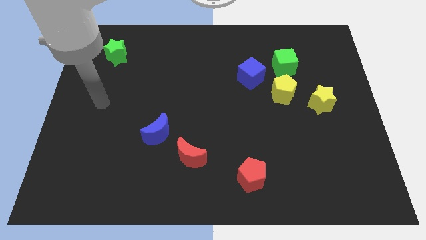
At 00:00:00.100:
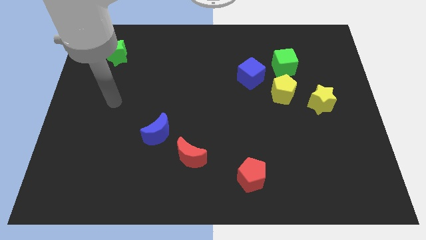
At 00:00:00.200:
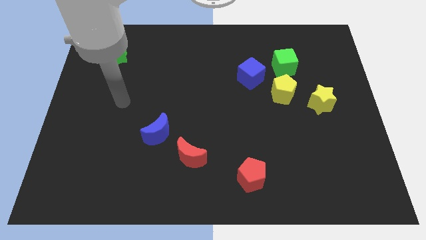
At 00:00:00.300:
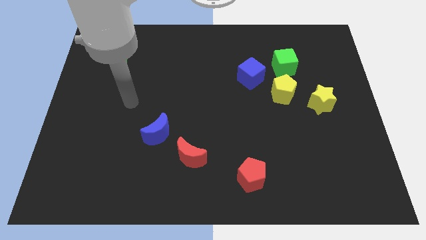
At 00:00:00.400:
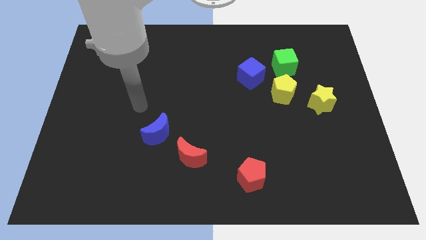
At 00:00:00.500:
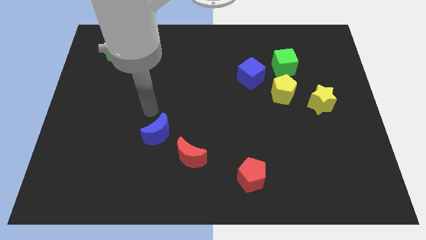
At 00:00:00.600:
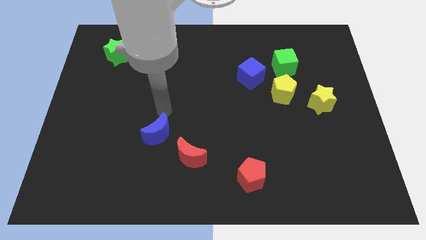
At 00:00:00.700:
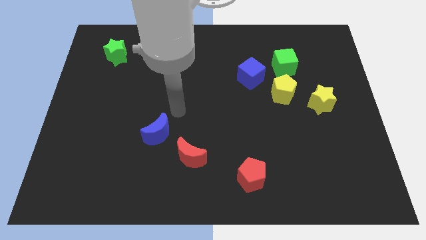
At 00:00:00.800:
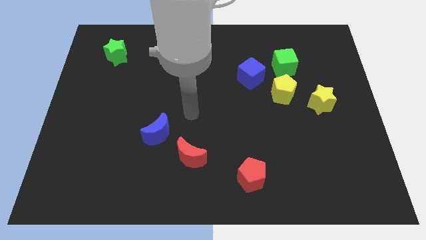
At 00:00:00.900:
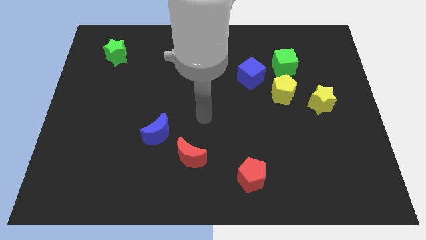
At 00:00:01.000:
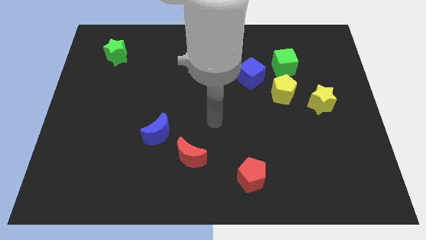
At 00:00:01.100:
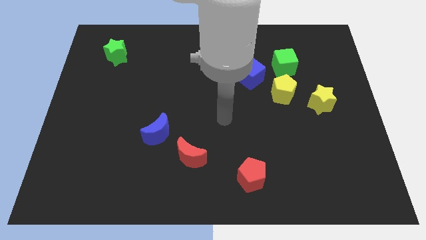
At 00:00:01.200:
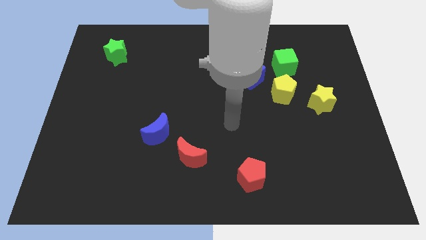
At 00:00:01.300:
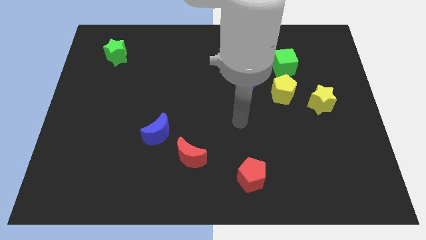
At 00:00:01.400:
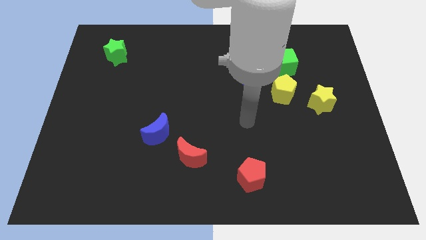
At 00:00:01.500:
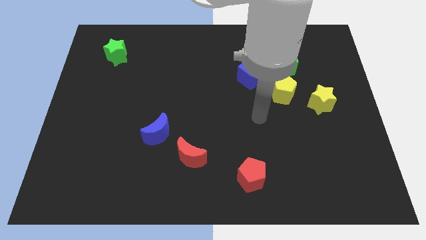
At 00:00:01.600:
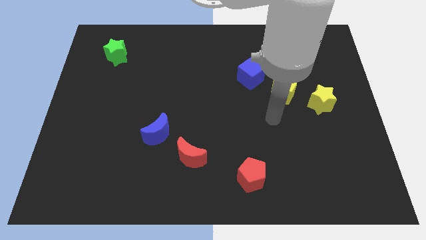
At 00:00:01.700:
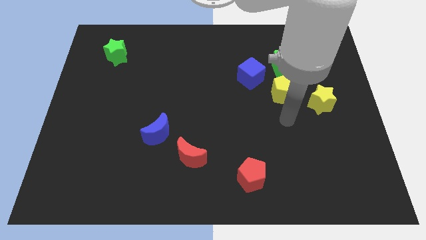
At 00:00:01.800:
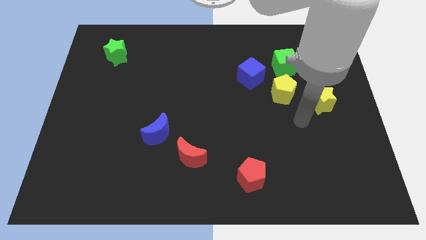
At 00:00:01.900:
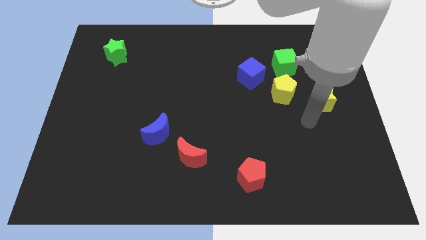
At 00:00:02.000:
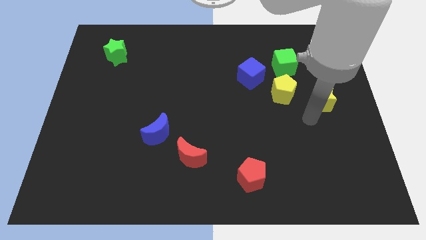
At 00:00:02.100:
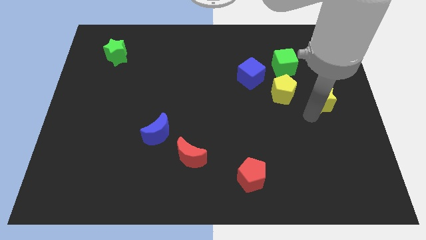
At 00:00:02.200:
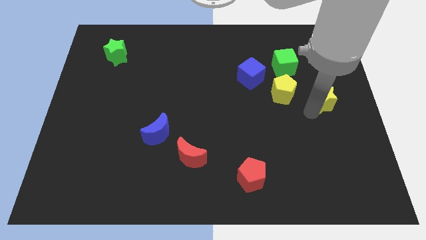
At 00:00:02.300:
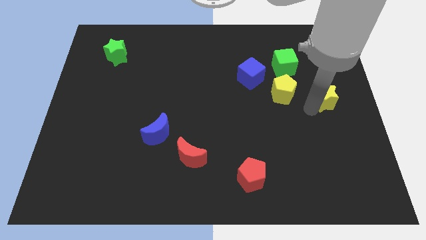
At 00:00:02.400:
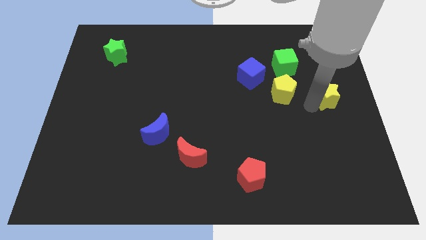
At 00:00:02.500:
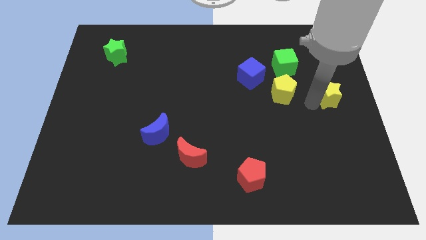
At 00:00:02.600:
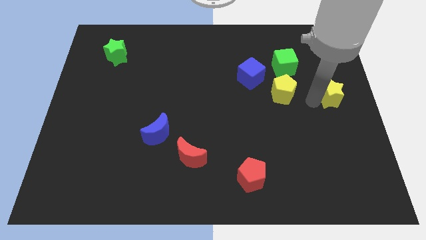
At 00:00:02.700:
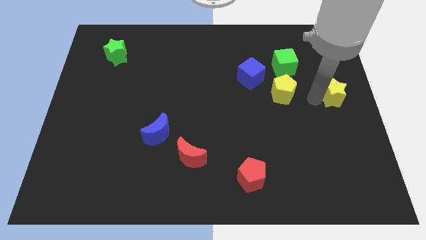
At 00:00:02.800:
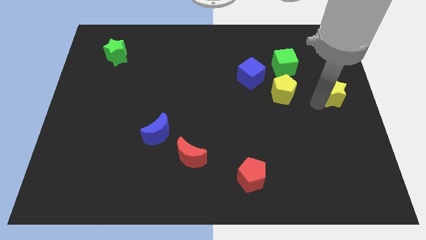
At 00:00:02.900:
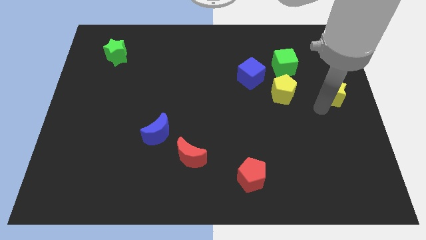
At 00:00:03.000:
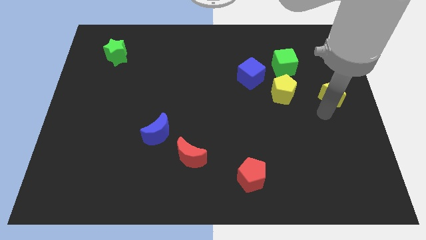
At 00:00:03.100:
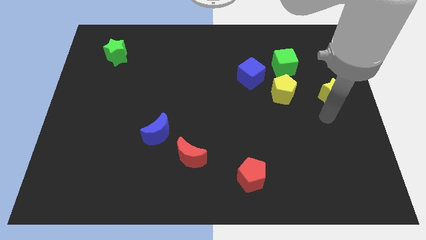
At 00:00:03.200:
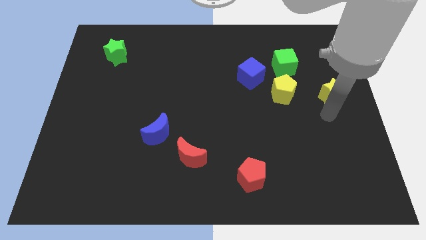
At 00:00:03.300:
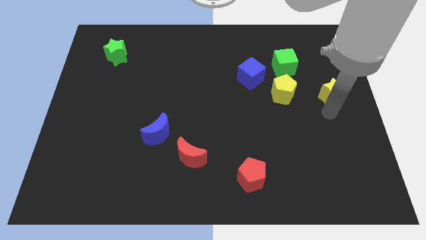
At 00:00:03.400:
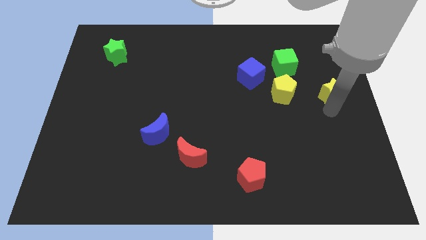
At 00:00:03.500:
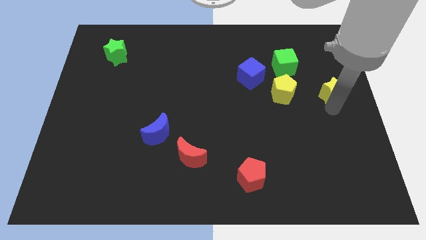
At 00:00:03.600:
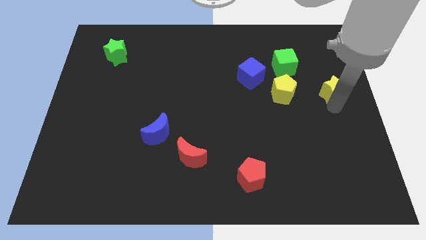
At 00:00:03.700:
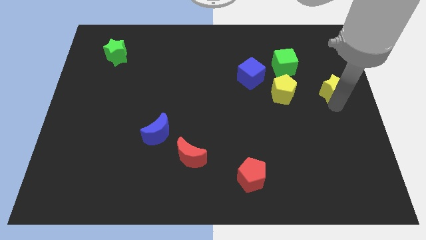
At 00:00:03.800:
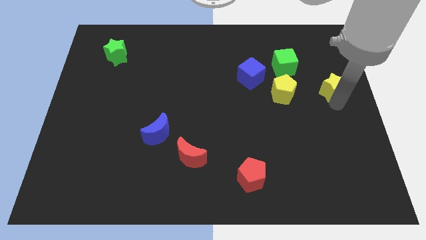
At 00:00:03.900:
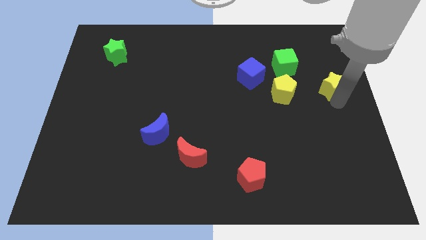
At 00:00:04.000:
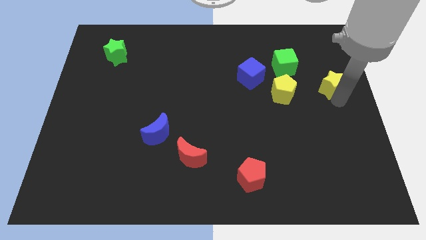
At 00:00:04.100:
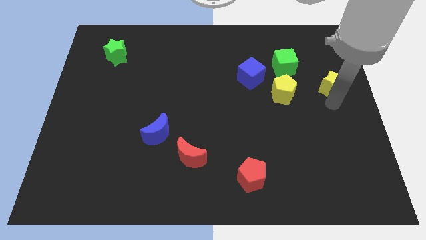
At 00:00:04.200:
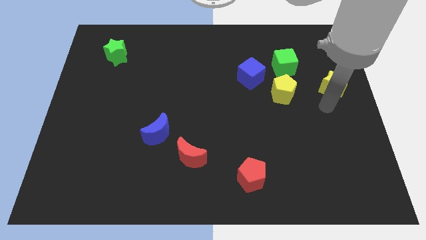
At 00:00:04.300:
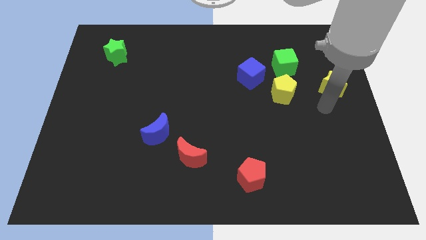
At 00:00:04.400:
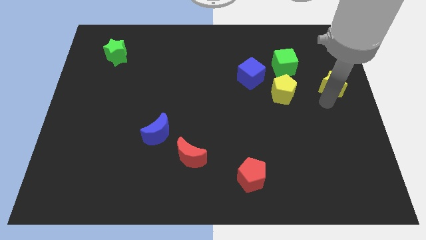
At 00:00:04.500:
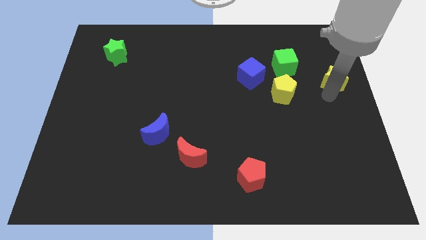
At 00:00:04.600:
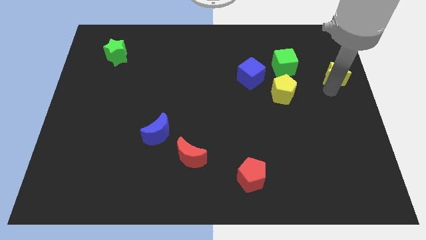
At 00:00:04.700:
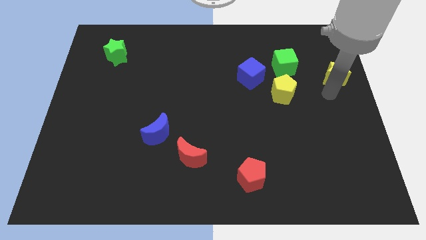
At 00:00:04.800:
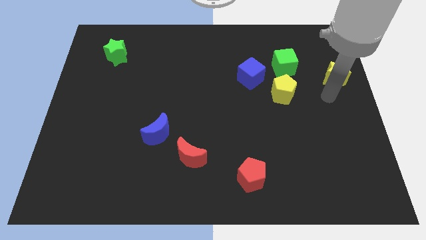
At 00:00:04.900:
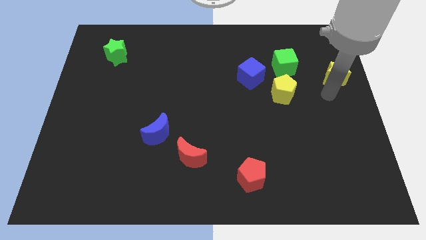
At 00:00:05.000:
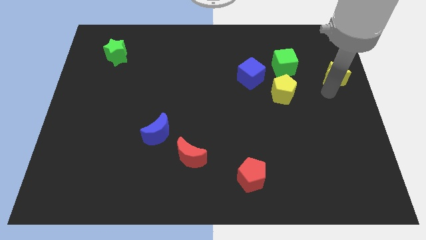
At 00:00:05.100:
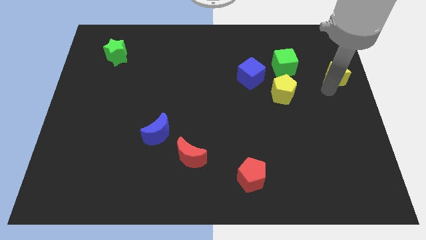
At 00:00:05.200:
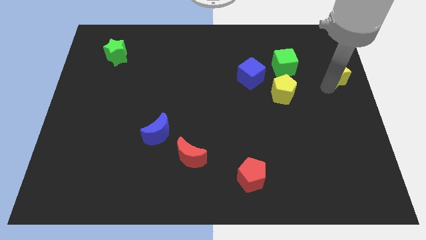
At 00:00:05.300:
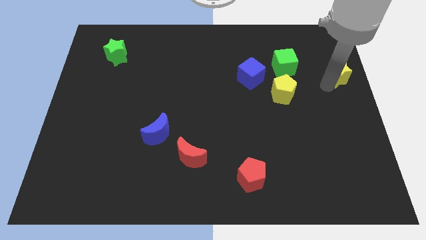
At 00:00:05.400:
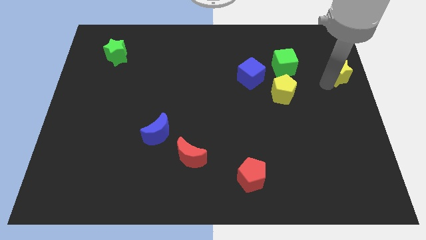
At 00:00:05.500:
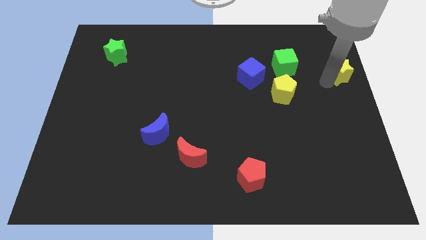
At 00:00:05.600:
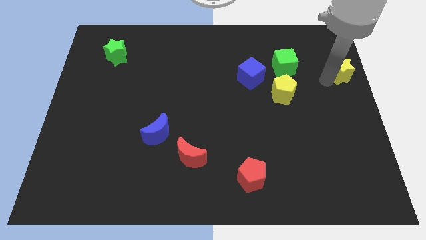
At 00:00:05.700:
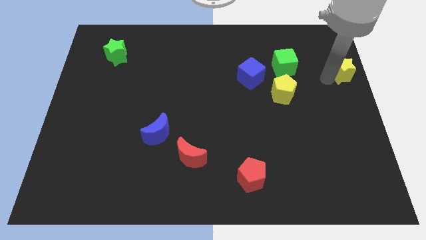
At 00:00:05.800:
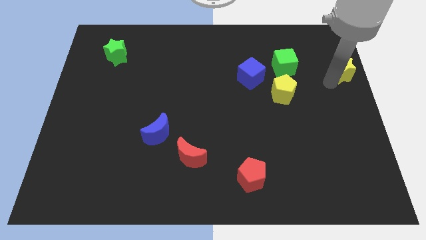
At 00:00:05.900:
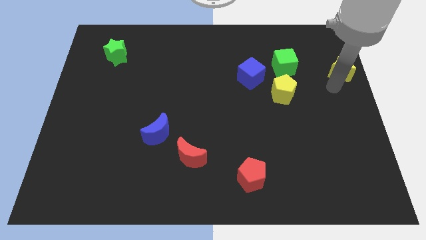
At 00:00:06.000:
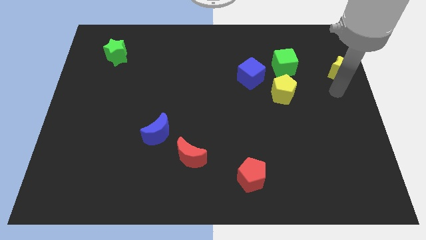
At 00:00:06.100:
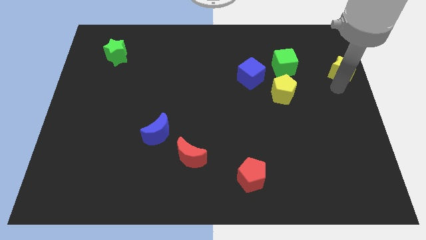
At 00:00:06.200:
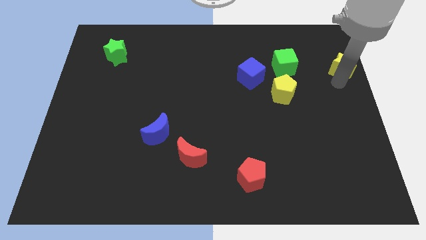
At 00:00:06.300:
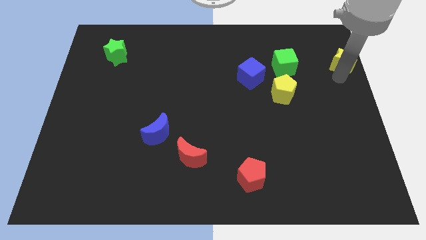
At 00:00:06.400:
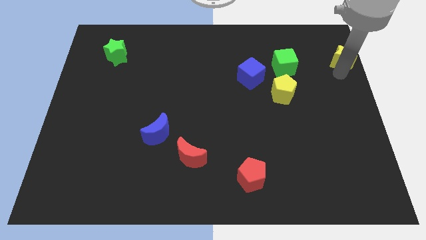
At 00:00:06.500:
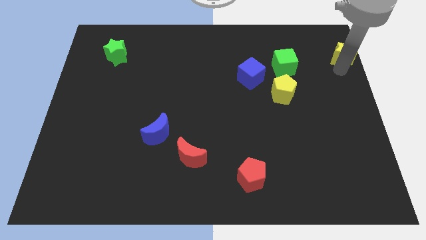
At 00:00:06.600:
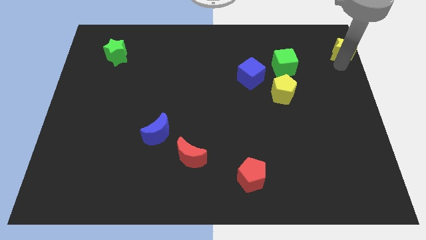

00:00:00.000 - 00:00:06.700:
push the yellow star to the top right of the board

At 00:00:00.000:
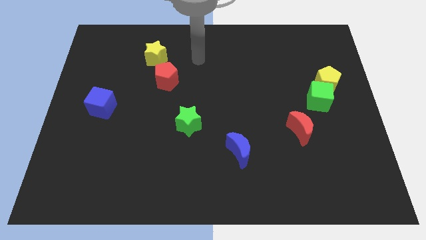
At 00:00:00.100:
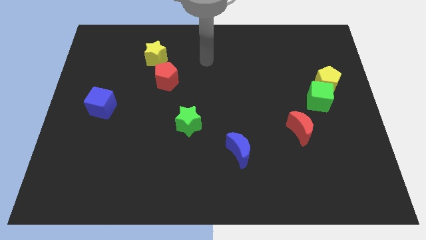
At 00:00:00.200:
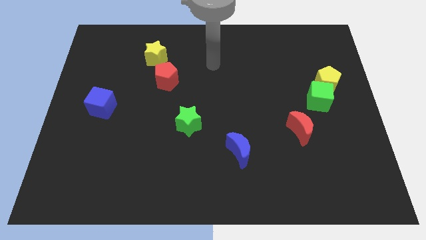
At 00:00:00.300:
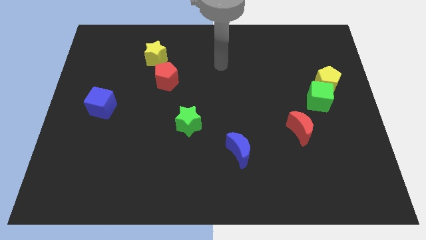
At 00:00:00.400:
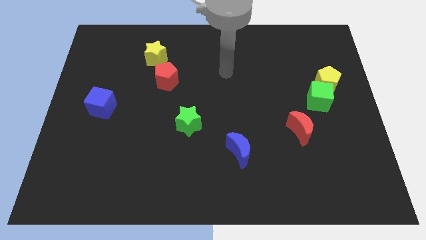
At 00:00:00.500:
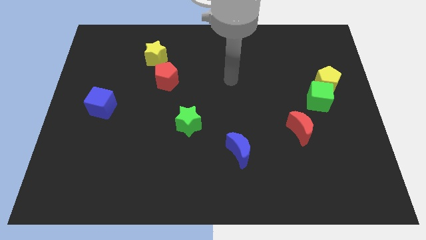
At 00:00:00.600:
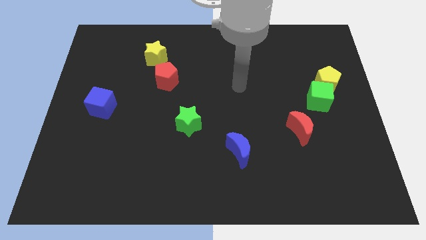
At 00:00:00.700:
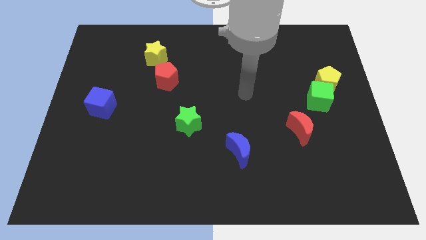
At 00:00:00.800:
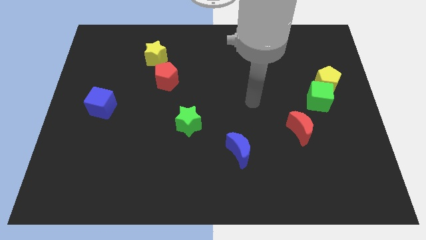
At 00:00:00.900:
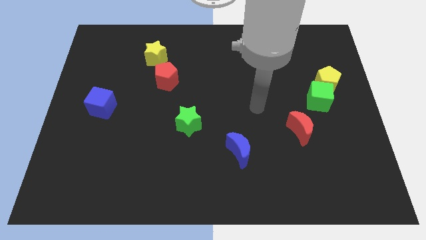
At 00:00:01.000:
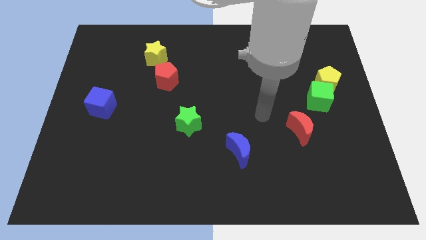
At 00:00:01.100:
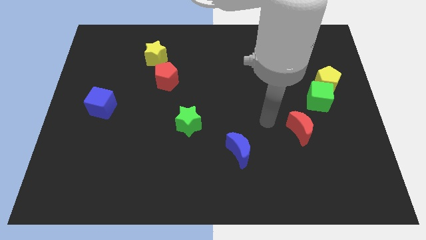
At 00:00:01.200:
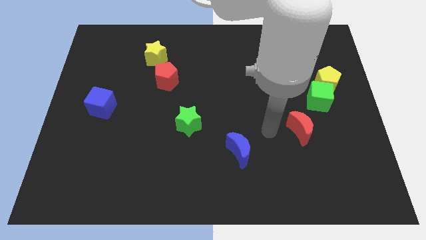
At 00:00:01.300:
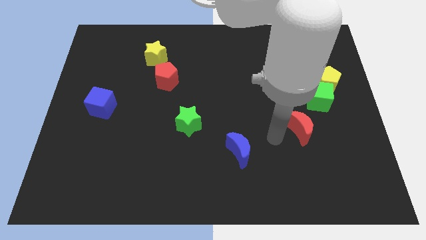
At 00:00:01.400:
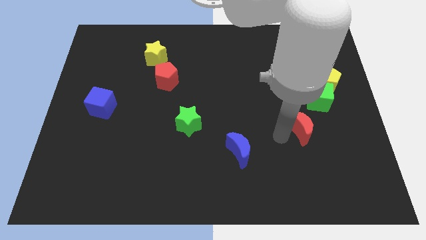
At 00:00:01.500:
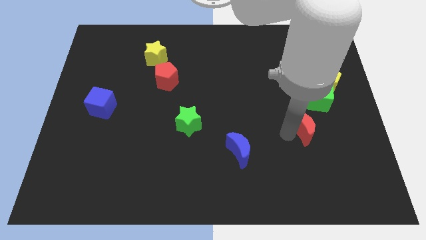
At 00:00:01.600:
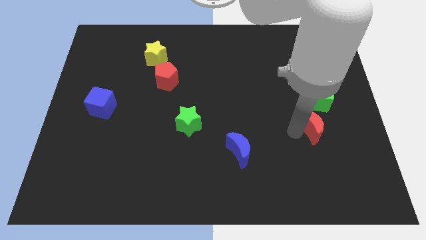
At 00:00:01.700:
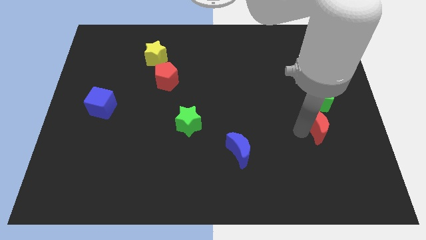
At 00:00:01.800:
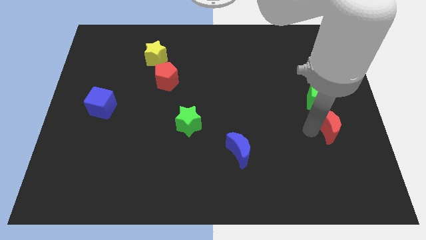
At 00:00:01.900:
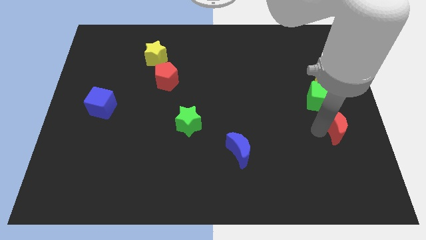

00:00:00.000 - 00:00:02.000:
slide the red moon to the right side of the board
